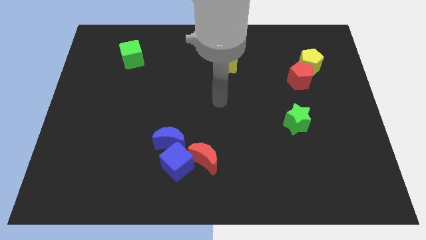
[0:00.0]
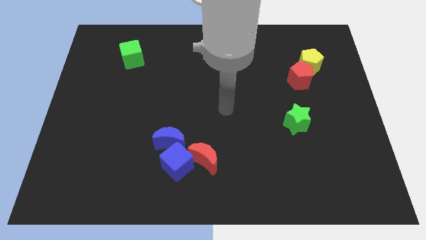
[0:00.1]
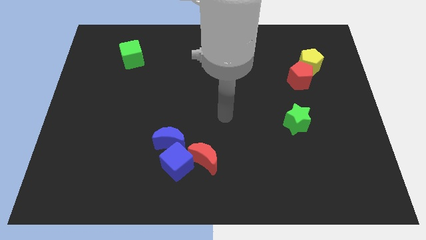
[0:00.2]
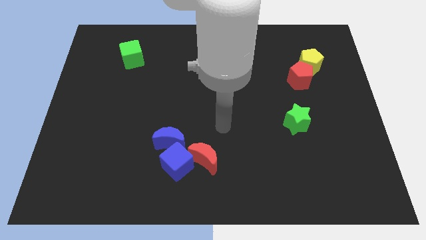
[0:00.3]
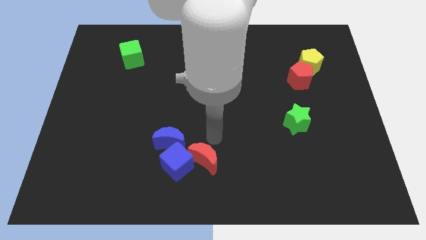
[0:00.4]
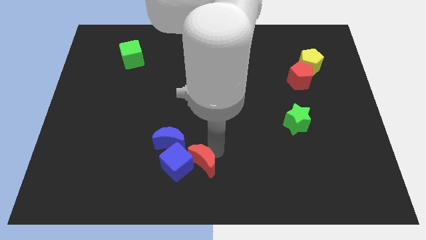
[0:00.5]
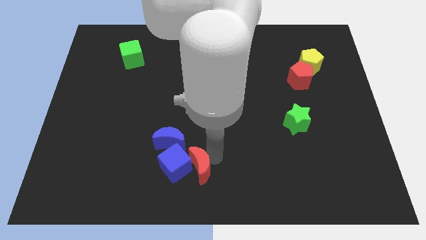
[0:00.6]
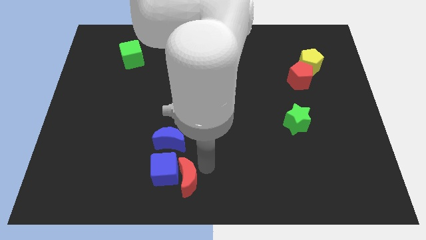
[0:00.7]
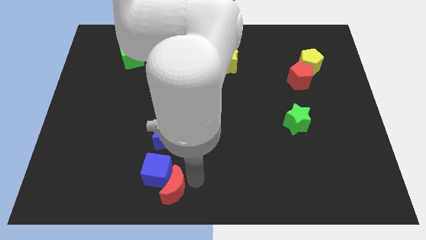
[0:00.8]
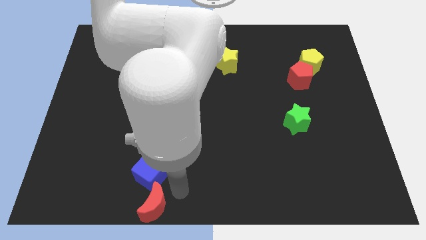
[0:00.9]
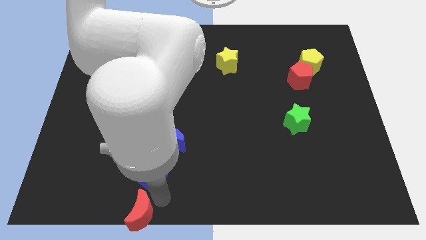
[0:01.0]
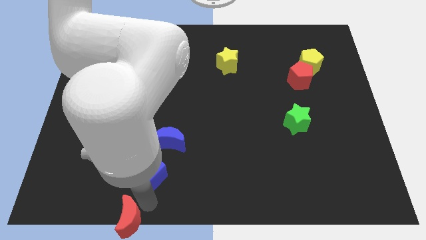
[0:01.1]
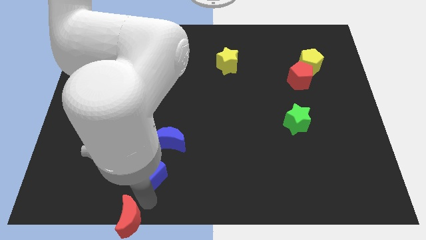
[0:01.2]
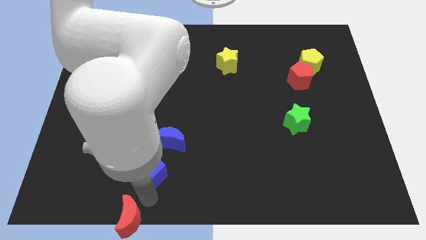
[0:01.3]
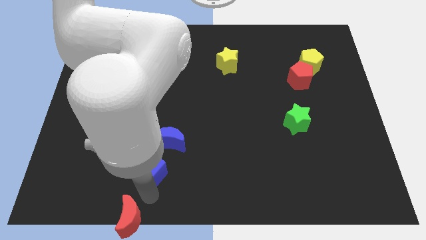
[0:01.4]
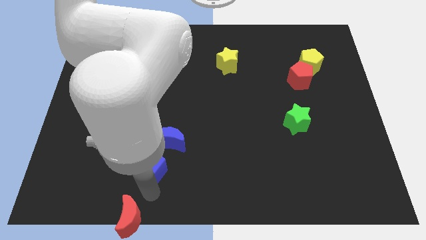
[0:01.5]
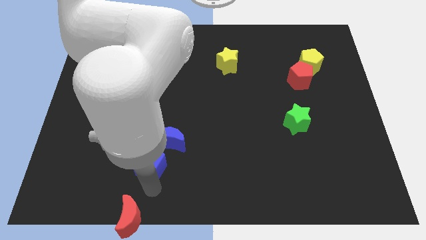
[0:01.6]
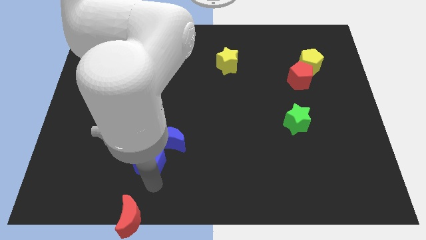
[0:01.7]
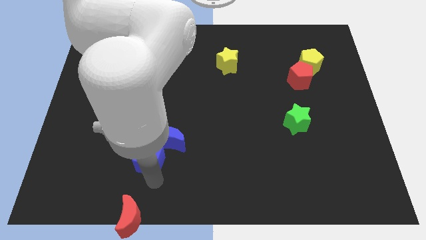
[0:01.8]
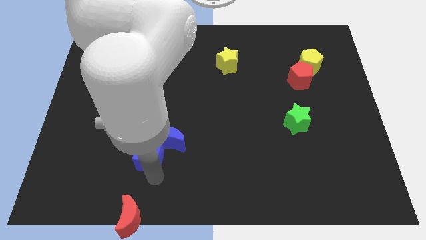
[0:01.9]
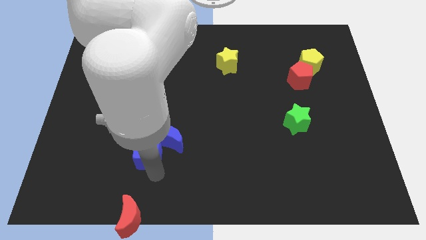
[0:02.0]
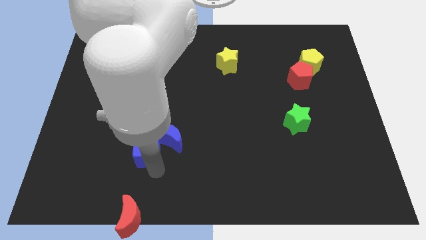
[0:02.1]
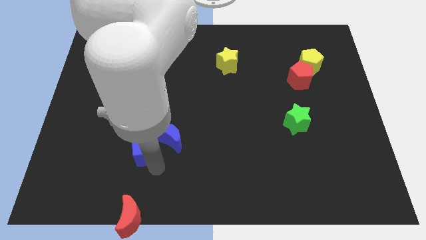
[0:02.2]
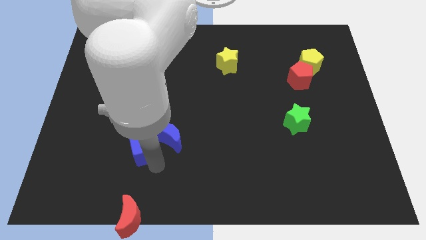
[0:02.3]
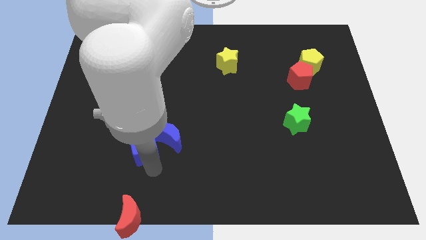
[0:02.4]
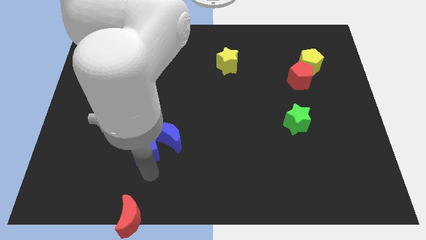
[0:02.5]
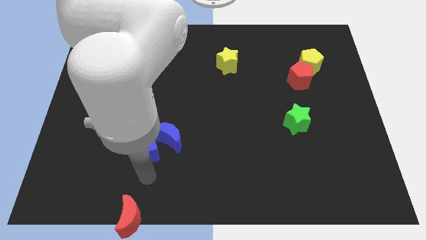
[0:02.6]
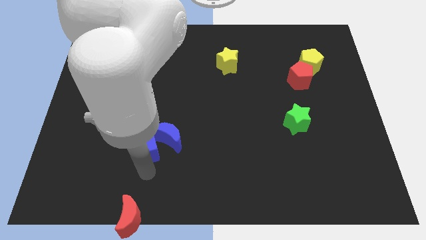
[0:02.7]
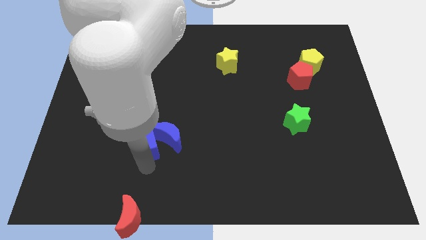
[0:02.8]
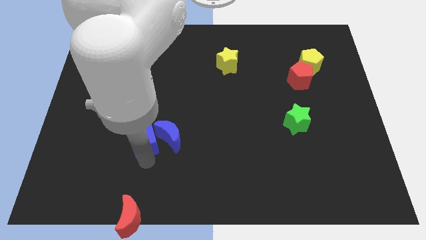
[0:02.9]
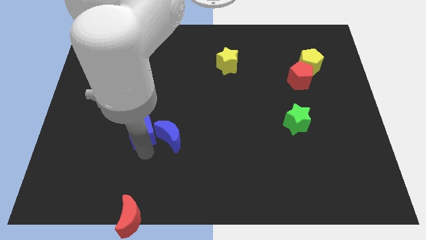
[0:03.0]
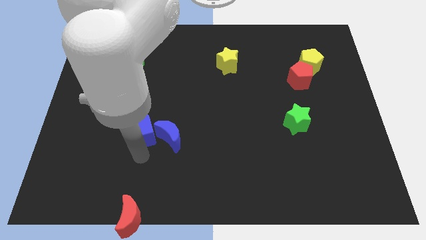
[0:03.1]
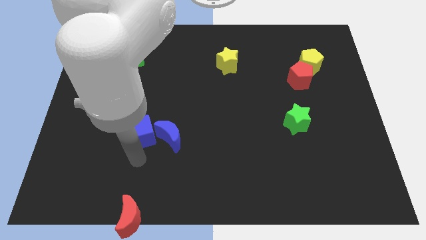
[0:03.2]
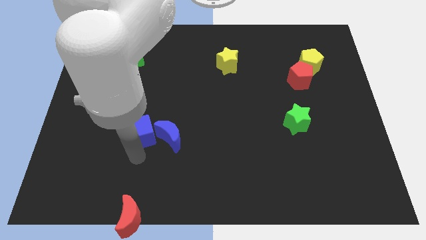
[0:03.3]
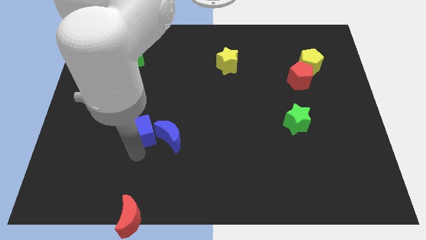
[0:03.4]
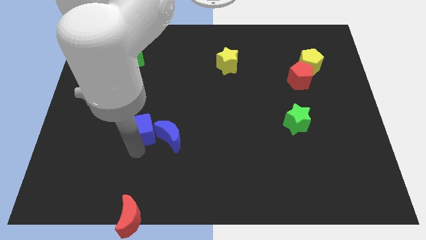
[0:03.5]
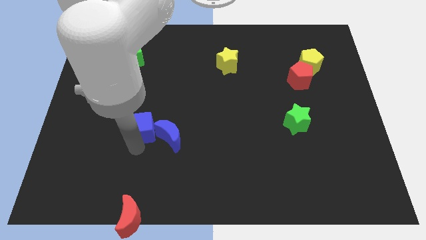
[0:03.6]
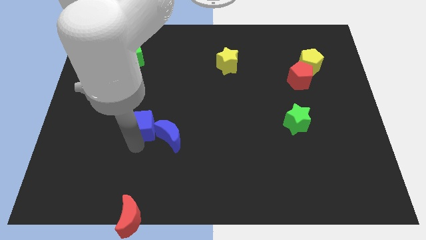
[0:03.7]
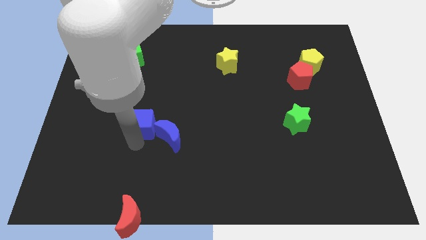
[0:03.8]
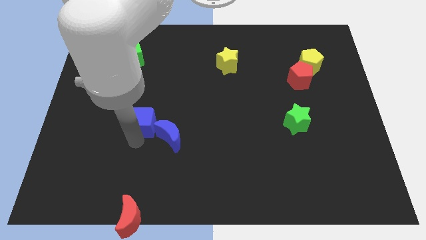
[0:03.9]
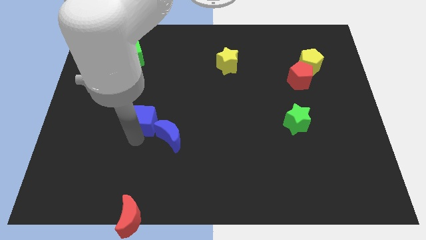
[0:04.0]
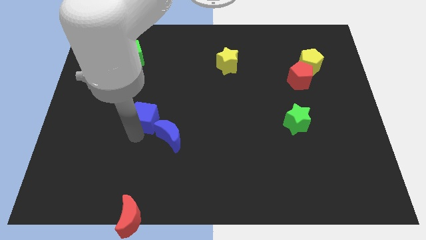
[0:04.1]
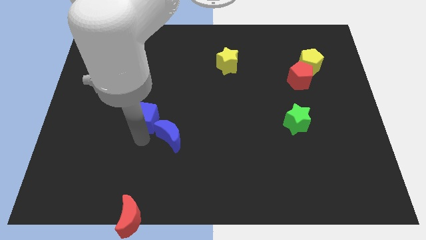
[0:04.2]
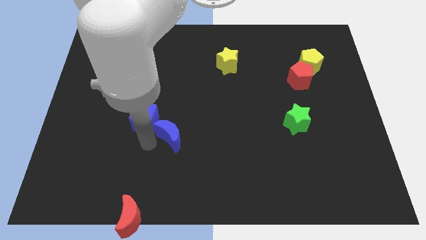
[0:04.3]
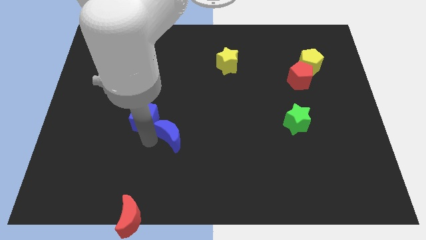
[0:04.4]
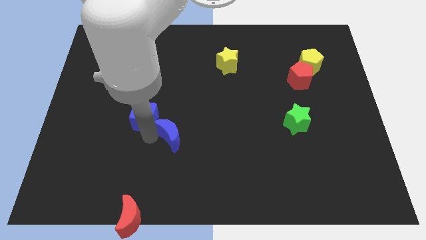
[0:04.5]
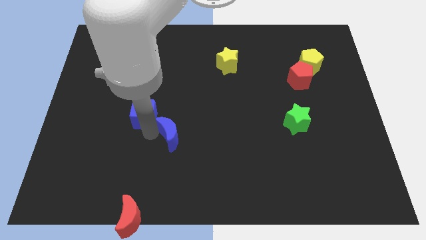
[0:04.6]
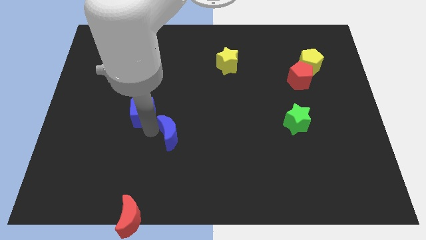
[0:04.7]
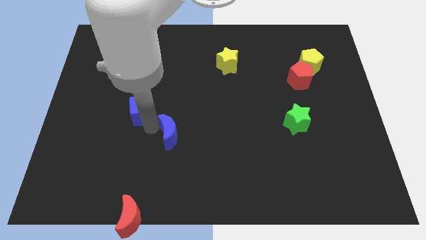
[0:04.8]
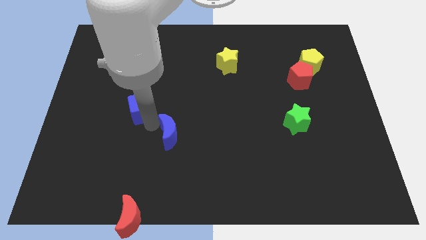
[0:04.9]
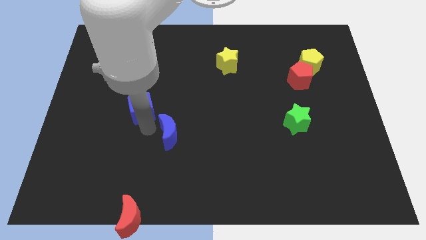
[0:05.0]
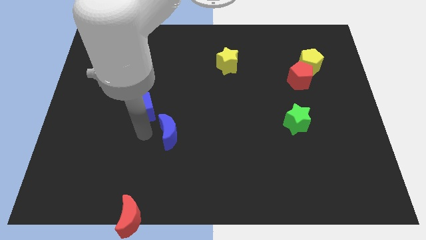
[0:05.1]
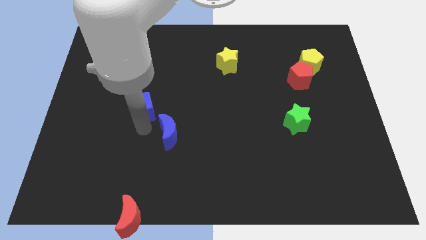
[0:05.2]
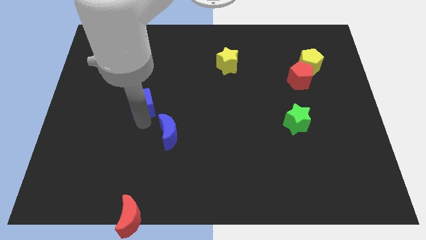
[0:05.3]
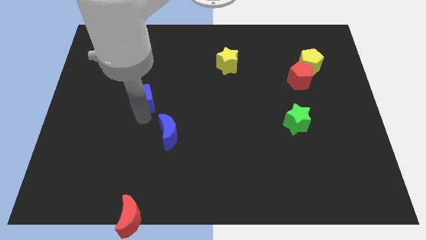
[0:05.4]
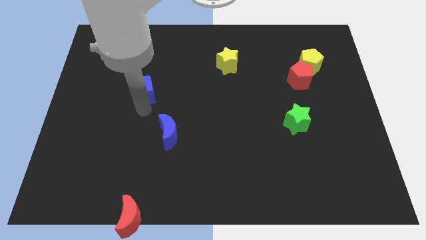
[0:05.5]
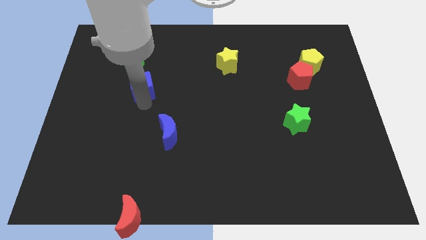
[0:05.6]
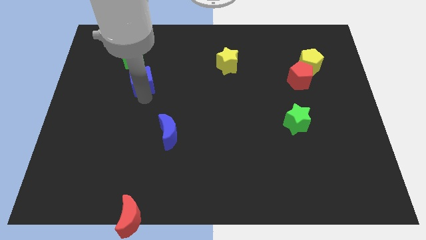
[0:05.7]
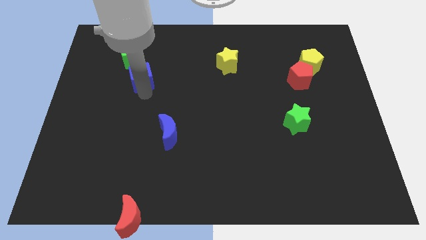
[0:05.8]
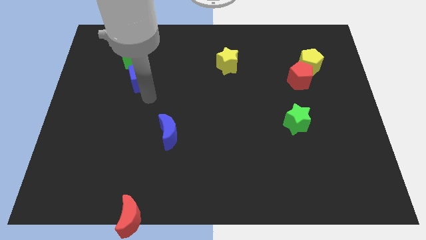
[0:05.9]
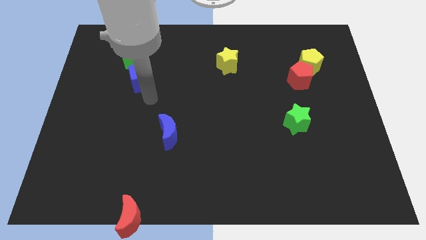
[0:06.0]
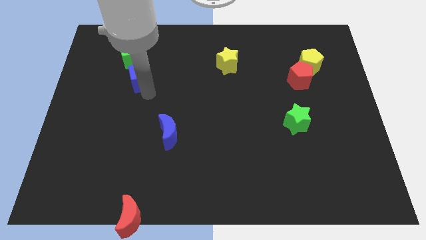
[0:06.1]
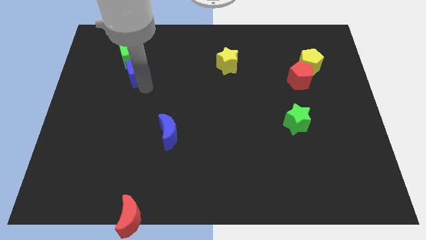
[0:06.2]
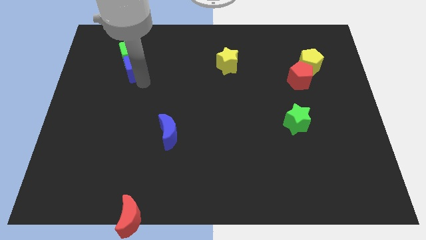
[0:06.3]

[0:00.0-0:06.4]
move the blue cube towards the green cube

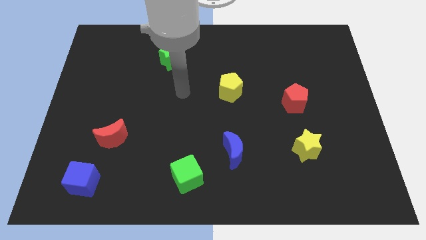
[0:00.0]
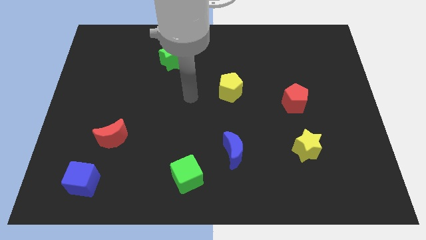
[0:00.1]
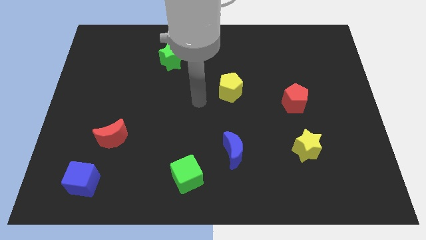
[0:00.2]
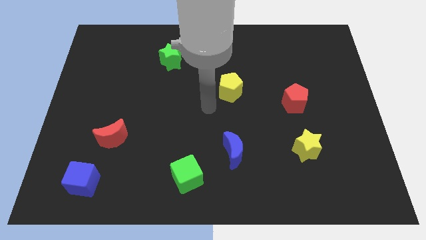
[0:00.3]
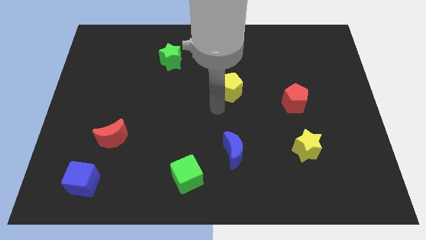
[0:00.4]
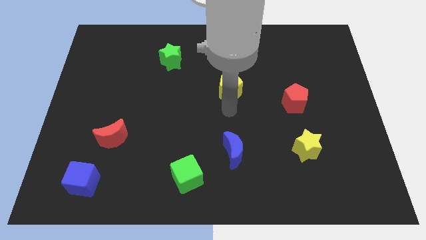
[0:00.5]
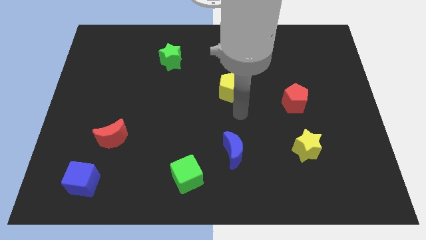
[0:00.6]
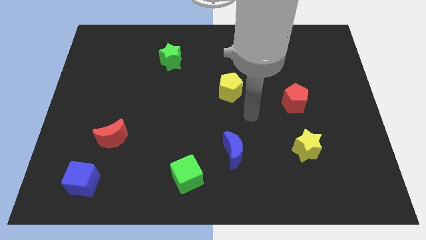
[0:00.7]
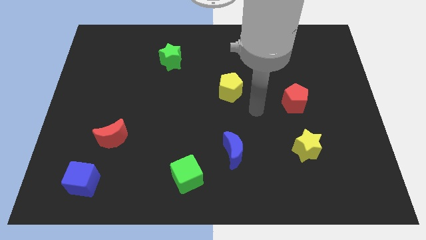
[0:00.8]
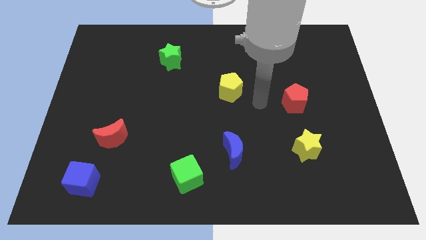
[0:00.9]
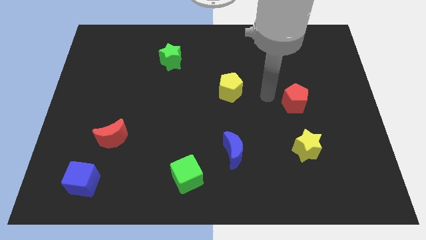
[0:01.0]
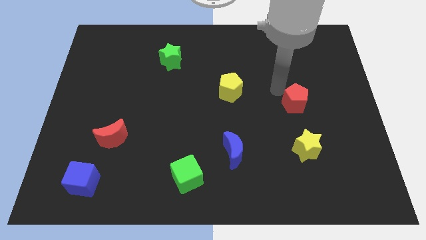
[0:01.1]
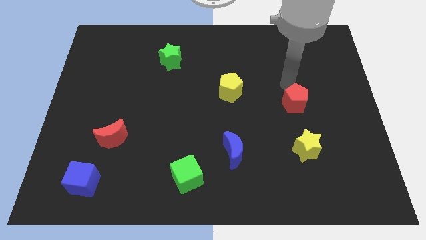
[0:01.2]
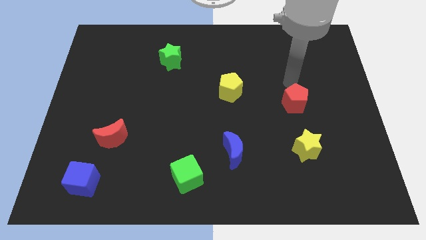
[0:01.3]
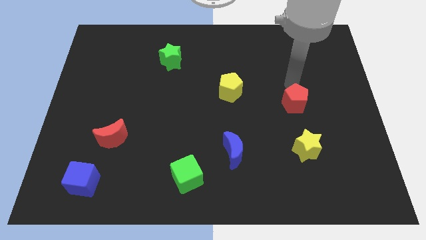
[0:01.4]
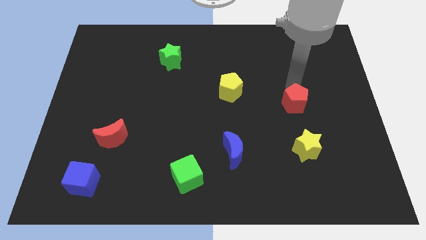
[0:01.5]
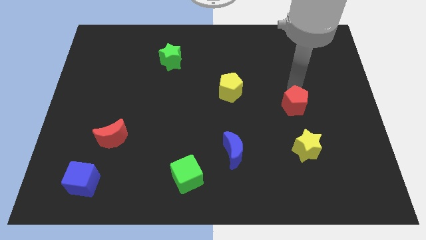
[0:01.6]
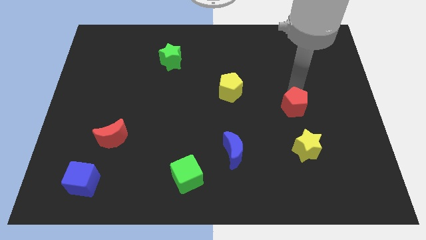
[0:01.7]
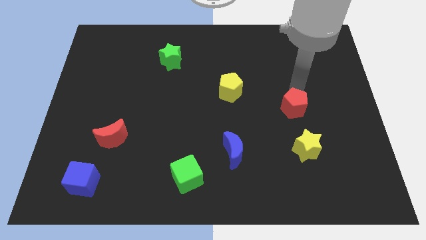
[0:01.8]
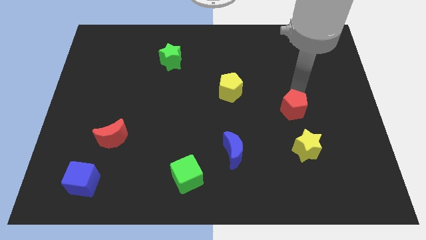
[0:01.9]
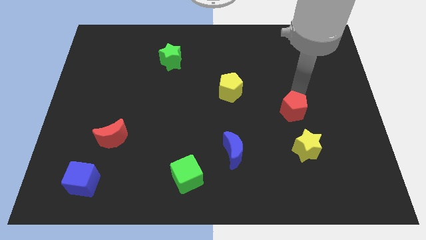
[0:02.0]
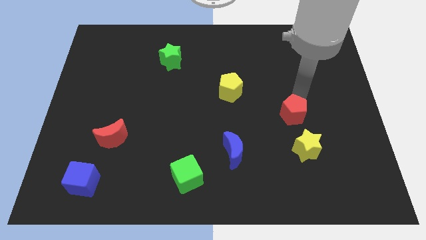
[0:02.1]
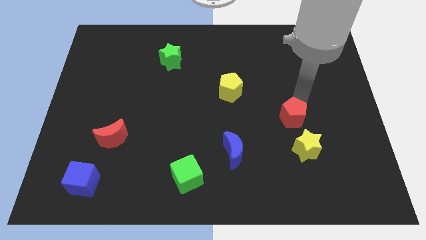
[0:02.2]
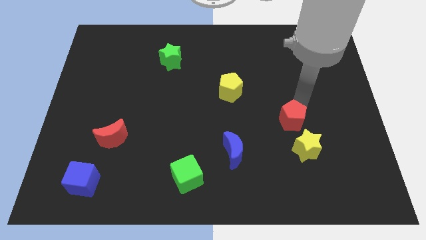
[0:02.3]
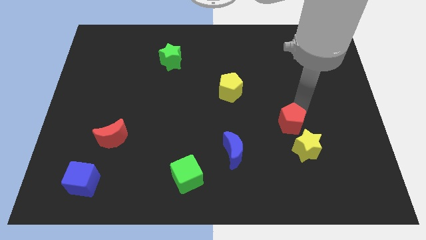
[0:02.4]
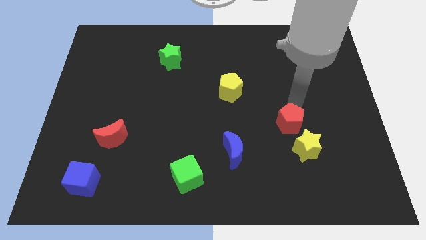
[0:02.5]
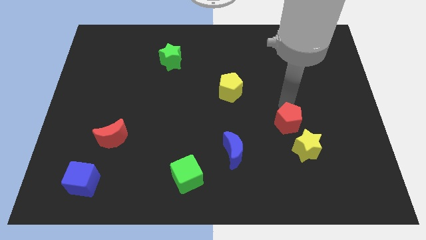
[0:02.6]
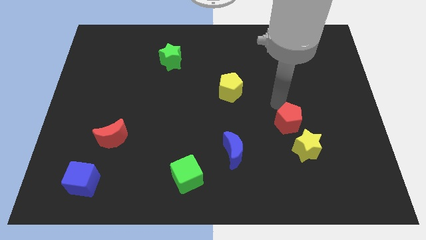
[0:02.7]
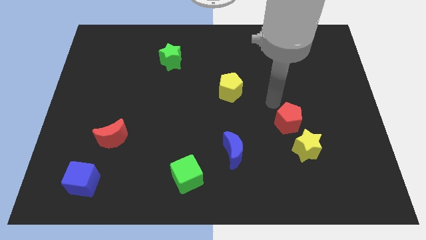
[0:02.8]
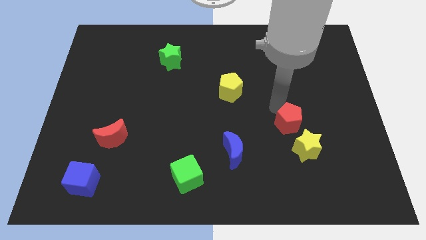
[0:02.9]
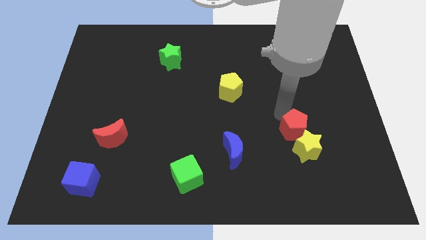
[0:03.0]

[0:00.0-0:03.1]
move the red pentagon towards the yellow star
